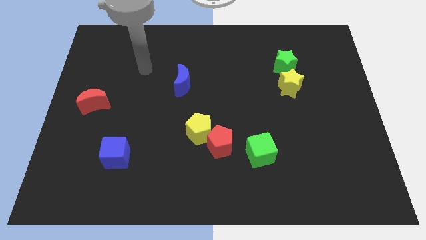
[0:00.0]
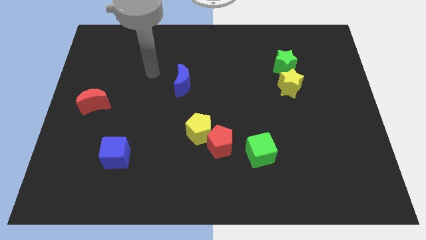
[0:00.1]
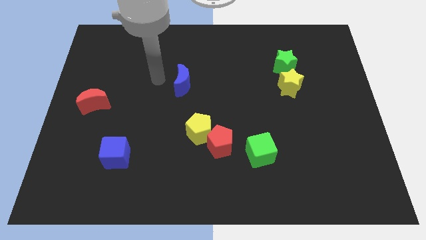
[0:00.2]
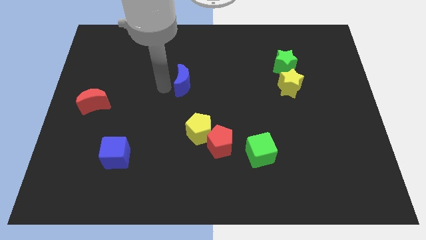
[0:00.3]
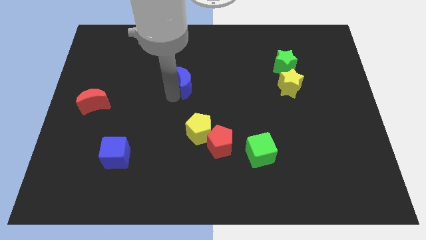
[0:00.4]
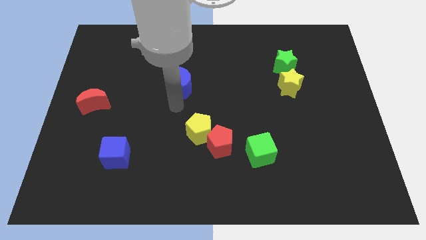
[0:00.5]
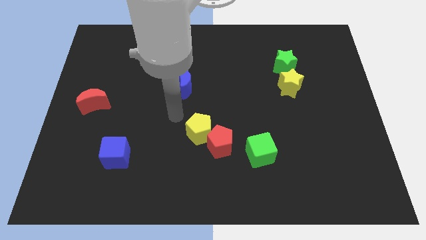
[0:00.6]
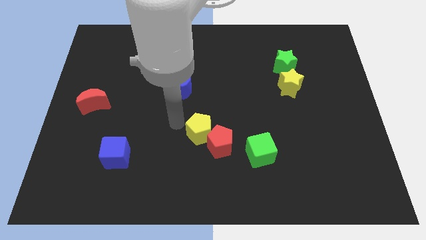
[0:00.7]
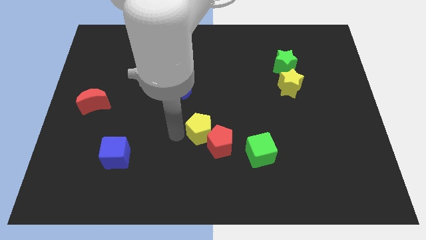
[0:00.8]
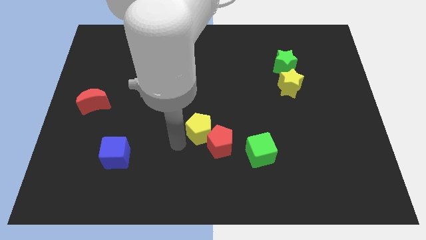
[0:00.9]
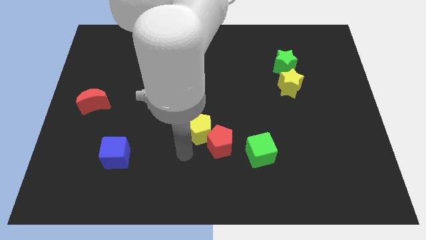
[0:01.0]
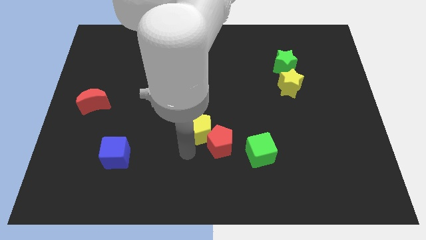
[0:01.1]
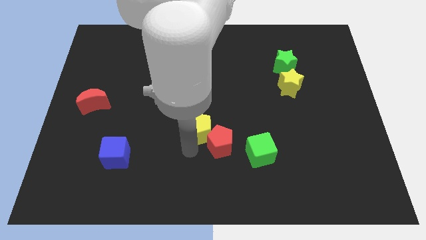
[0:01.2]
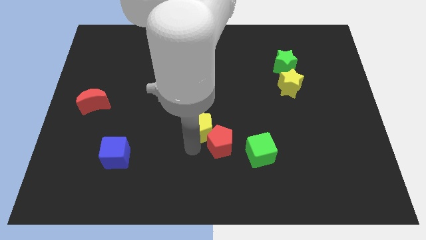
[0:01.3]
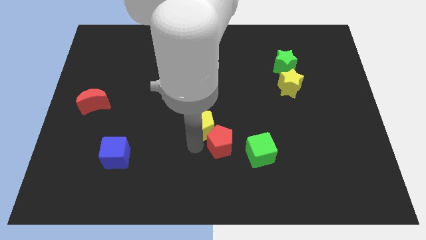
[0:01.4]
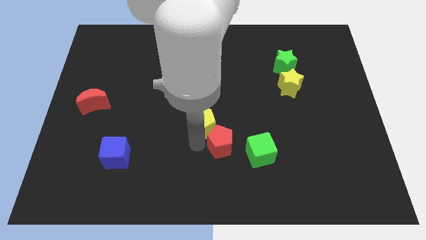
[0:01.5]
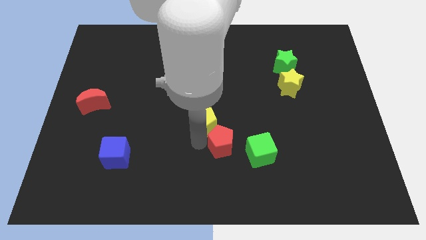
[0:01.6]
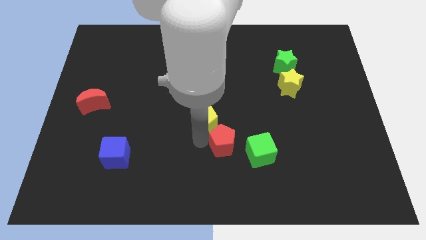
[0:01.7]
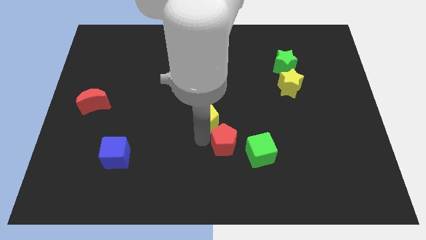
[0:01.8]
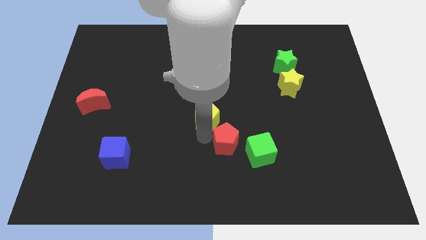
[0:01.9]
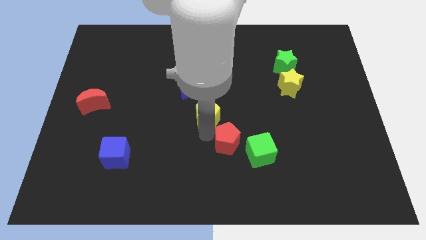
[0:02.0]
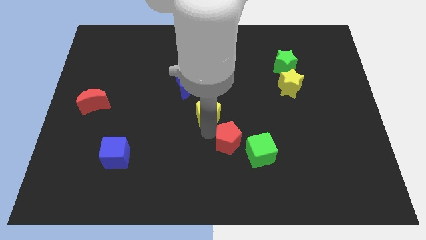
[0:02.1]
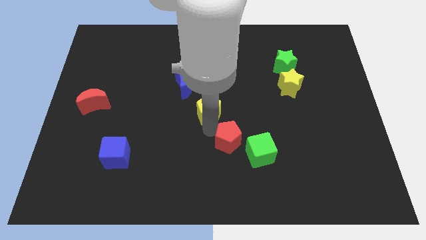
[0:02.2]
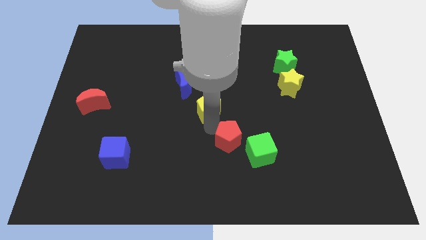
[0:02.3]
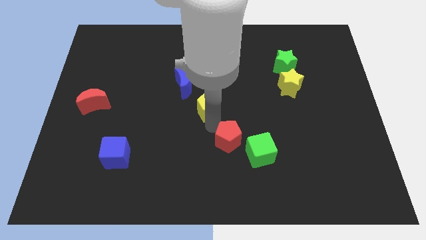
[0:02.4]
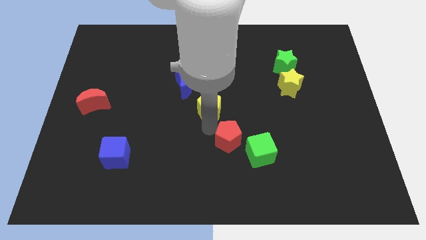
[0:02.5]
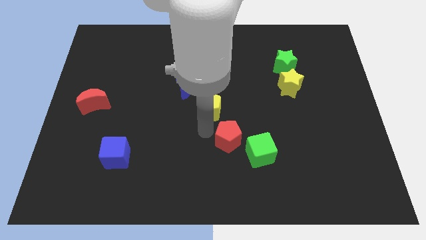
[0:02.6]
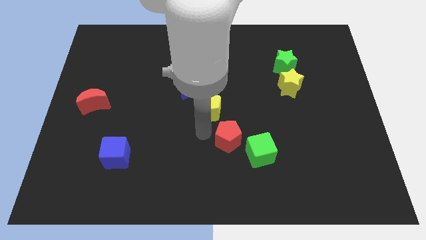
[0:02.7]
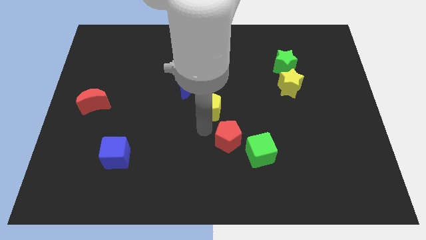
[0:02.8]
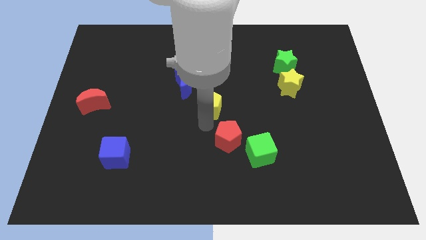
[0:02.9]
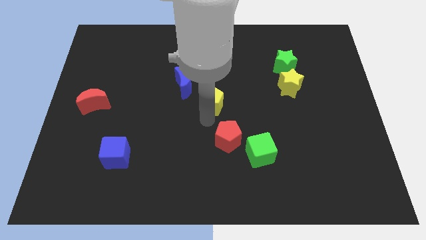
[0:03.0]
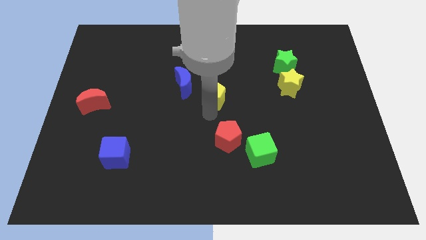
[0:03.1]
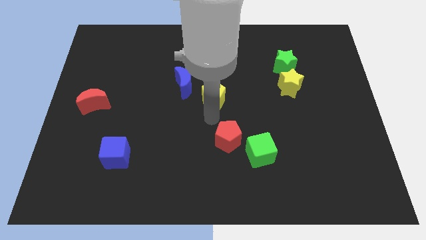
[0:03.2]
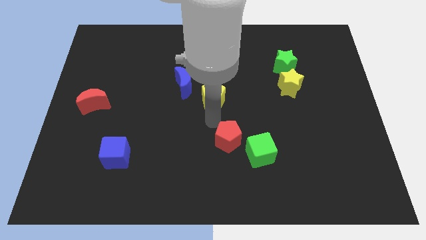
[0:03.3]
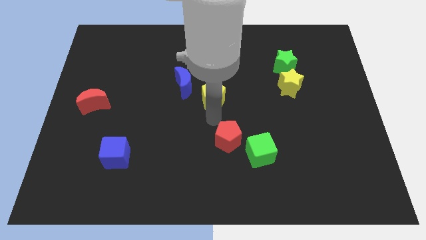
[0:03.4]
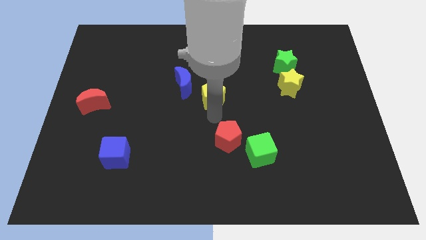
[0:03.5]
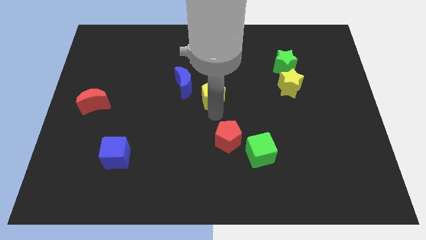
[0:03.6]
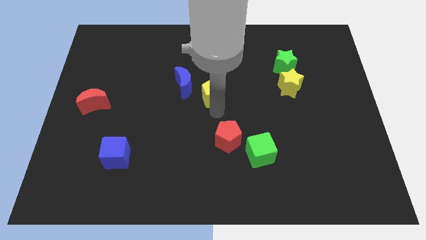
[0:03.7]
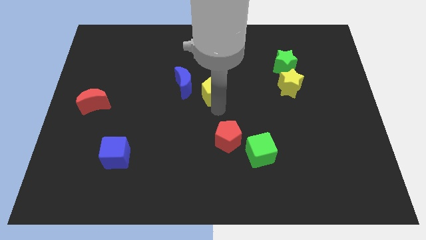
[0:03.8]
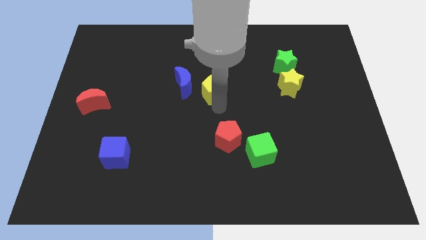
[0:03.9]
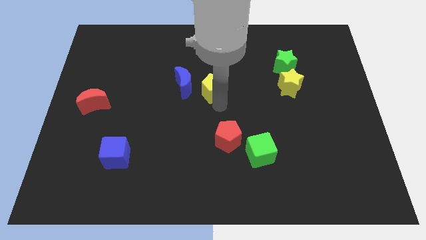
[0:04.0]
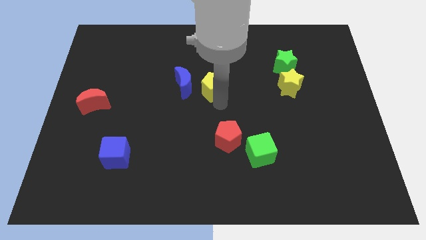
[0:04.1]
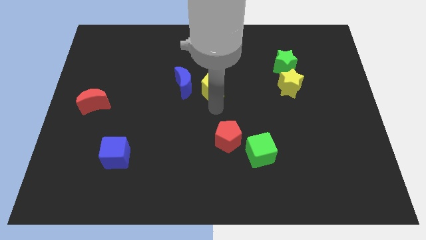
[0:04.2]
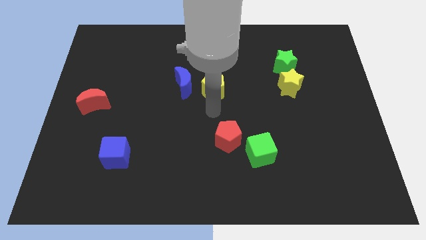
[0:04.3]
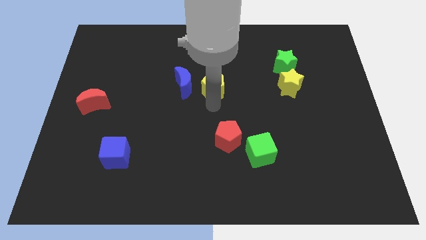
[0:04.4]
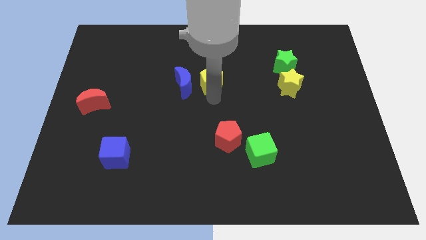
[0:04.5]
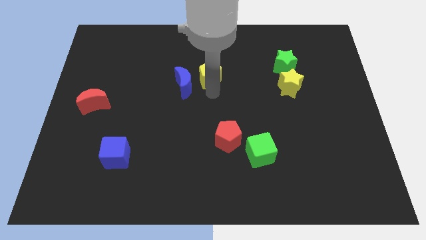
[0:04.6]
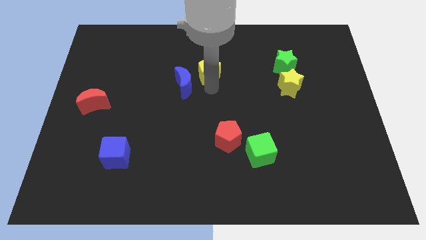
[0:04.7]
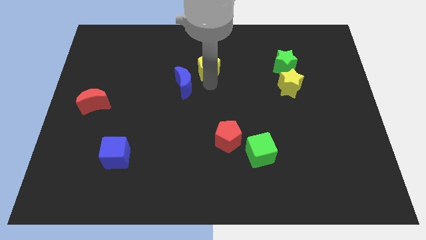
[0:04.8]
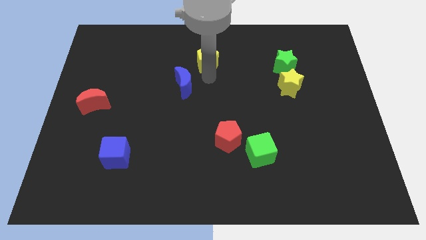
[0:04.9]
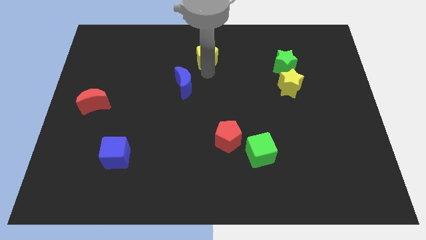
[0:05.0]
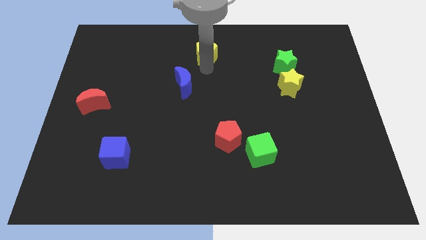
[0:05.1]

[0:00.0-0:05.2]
move the yellow pentagon to the towards your base

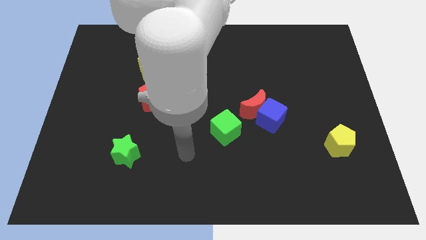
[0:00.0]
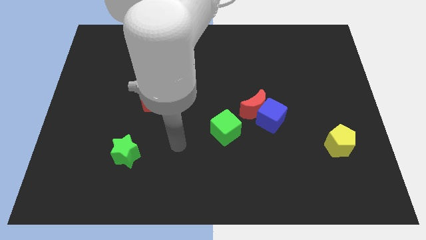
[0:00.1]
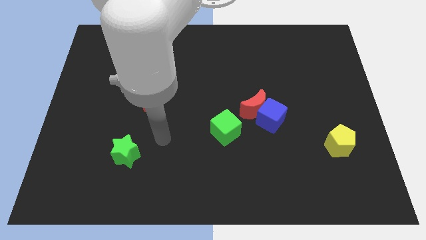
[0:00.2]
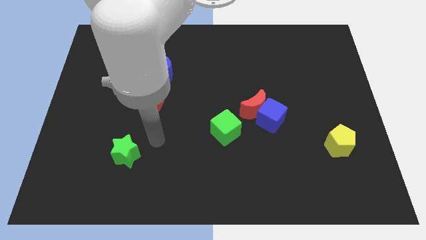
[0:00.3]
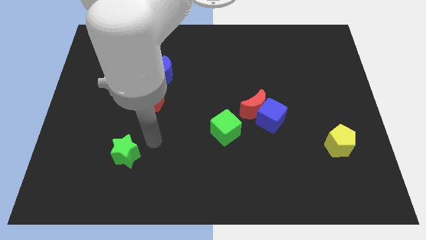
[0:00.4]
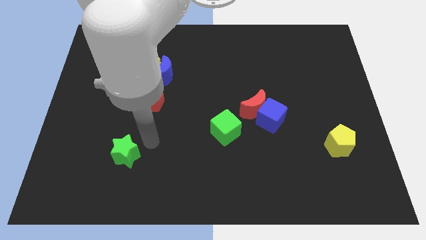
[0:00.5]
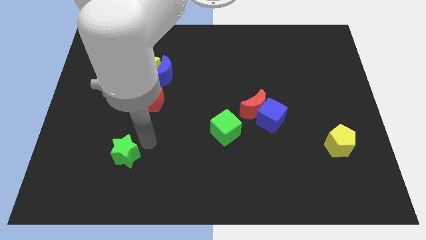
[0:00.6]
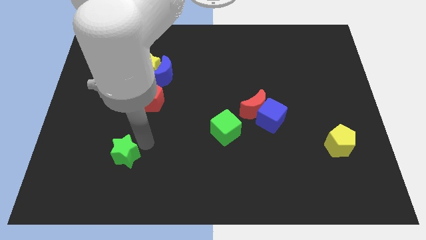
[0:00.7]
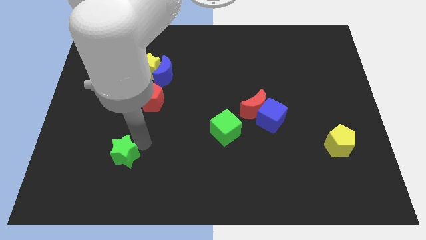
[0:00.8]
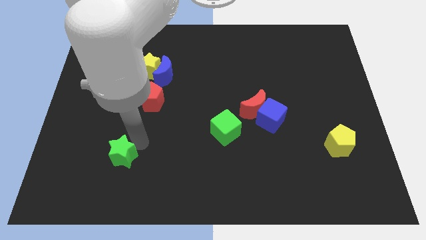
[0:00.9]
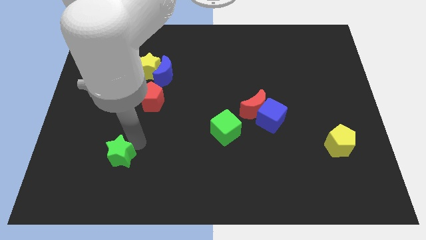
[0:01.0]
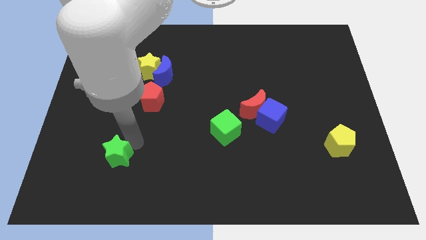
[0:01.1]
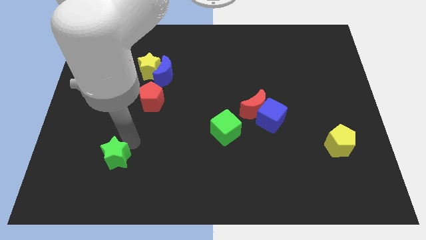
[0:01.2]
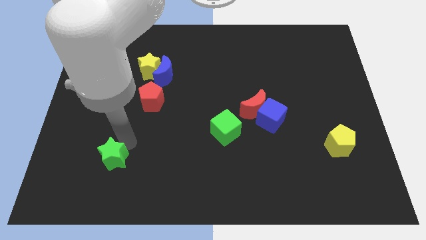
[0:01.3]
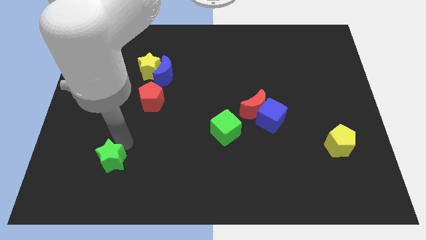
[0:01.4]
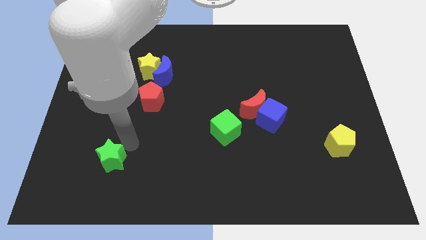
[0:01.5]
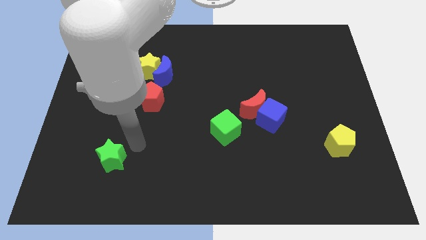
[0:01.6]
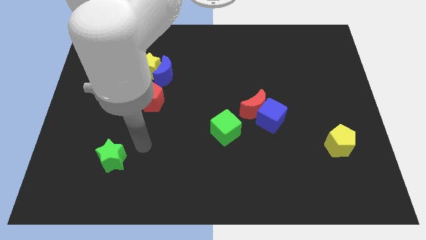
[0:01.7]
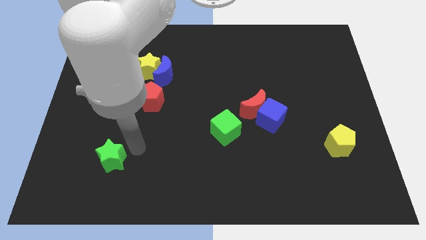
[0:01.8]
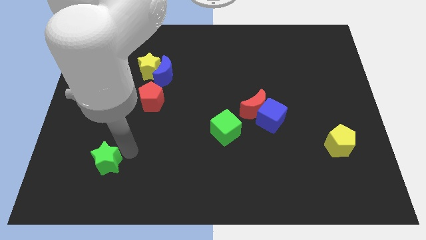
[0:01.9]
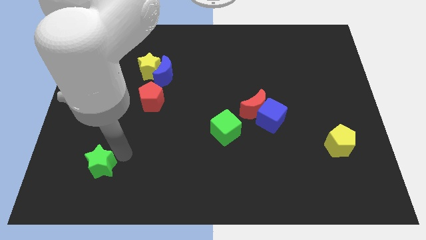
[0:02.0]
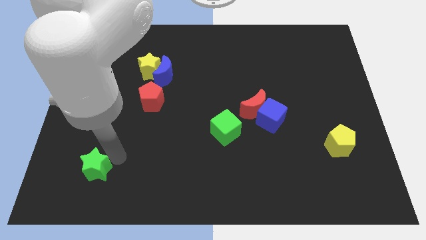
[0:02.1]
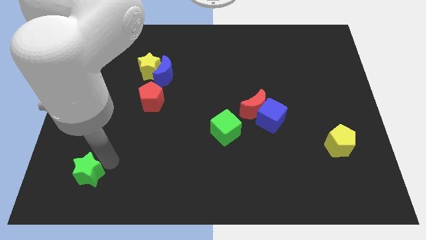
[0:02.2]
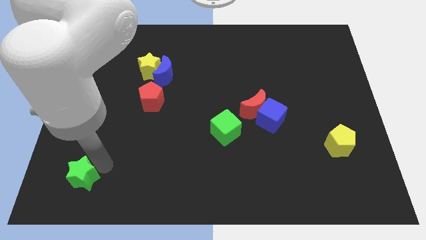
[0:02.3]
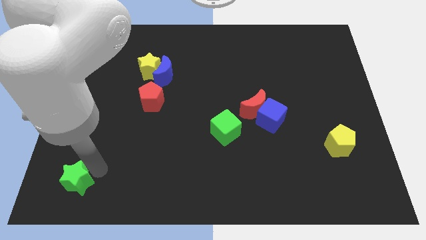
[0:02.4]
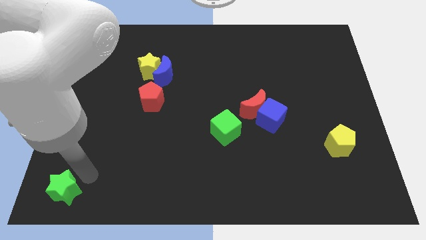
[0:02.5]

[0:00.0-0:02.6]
move the green star to the lower left corner
